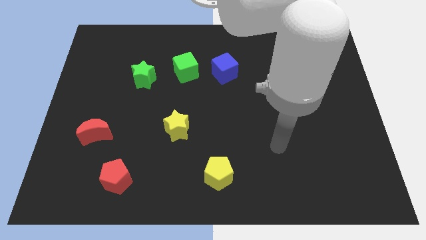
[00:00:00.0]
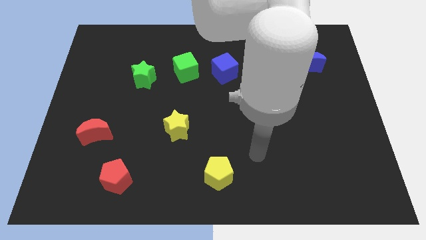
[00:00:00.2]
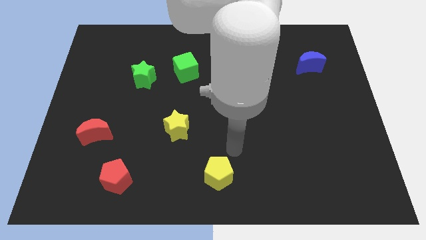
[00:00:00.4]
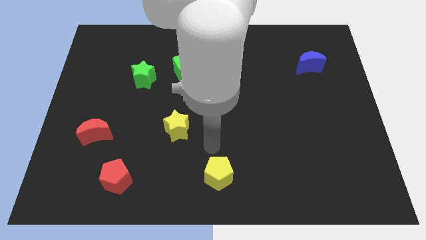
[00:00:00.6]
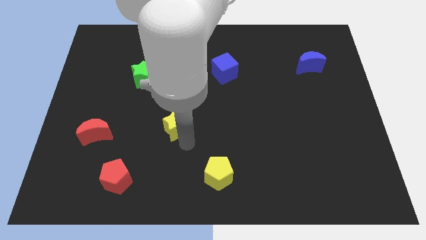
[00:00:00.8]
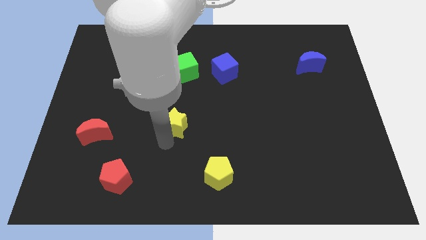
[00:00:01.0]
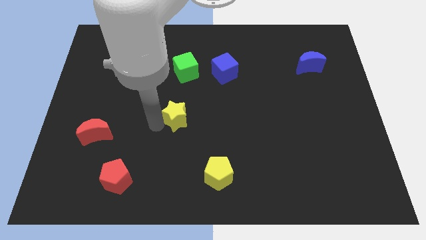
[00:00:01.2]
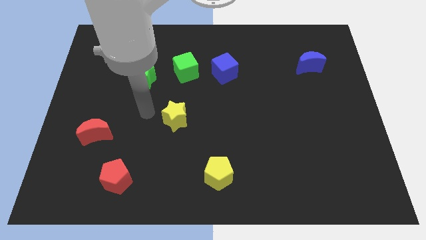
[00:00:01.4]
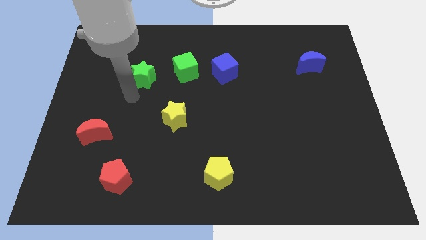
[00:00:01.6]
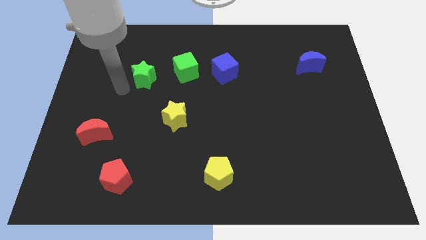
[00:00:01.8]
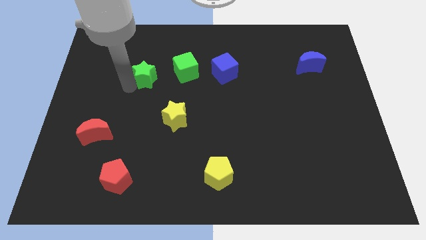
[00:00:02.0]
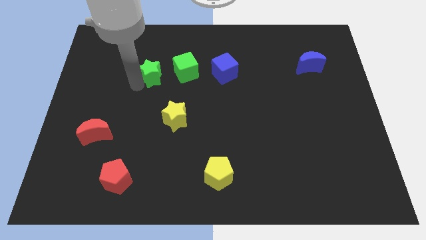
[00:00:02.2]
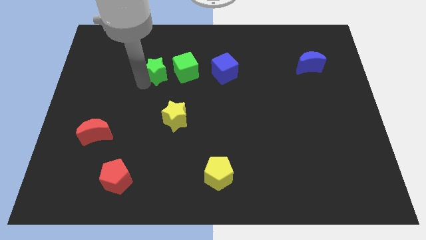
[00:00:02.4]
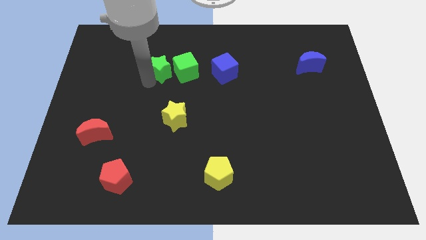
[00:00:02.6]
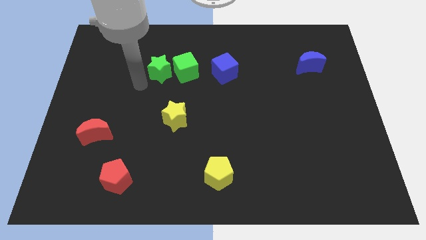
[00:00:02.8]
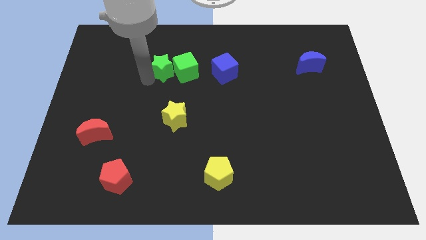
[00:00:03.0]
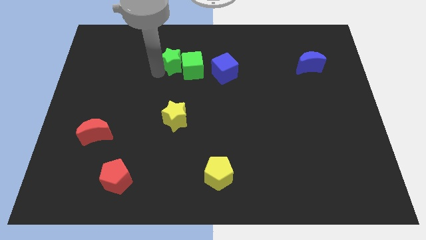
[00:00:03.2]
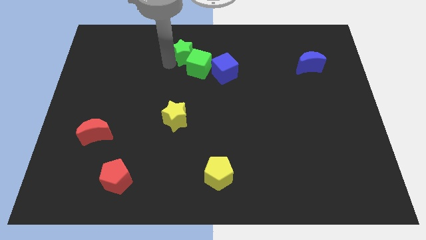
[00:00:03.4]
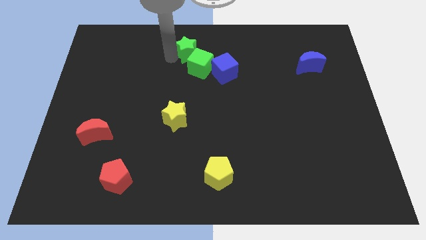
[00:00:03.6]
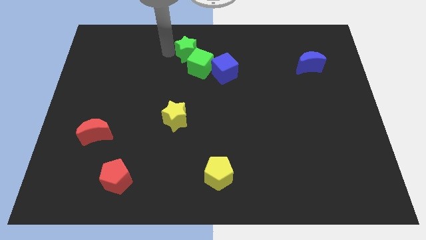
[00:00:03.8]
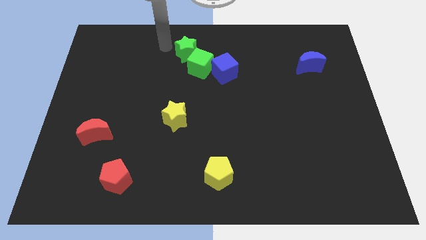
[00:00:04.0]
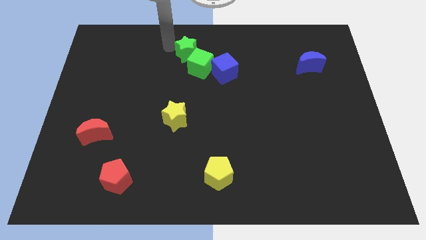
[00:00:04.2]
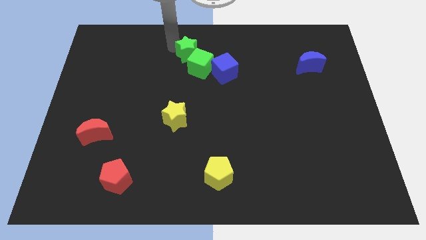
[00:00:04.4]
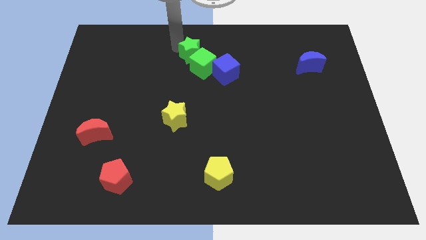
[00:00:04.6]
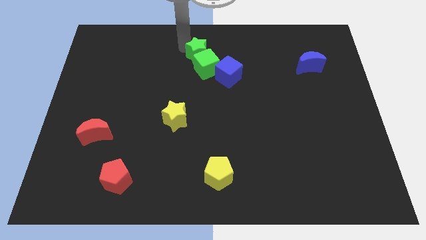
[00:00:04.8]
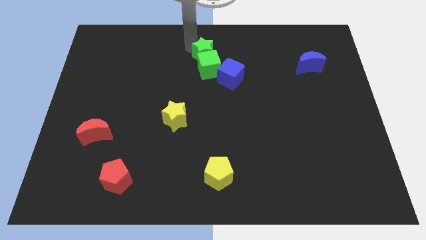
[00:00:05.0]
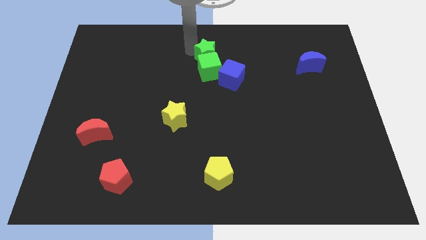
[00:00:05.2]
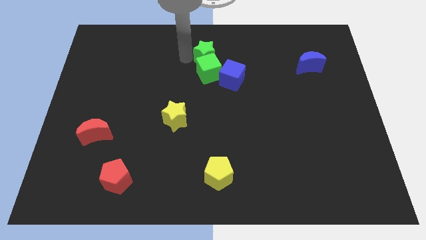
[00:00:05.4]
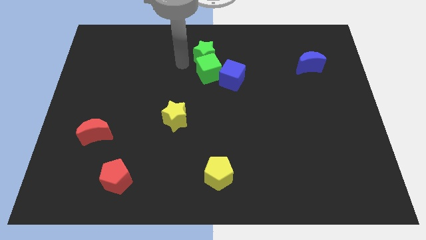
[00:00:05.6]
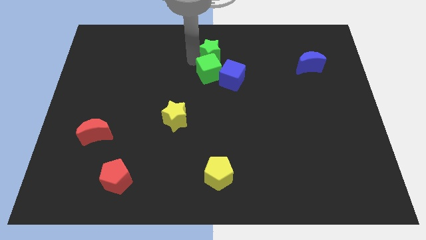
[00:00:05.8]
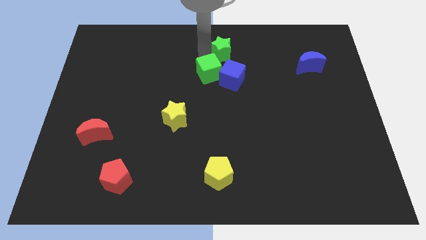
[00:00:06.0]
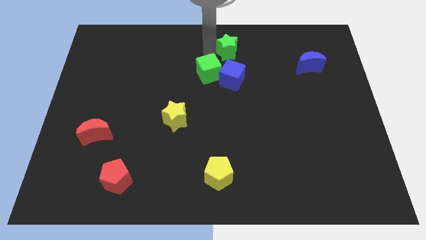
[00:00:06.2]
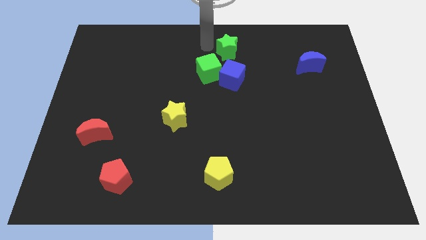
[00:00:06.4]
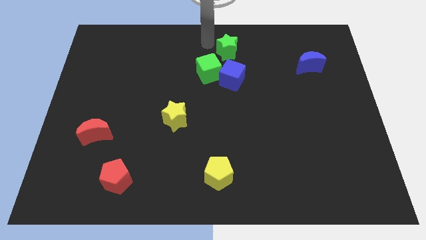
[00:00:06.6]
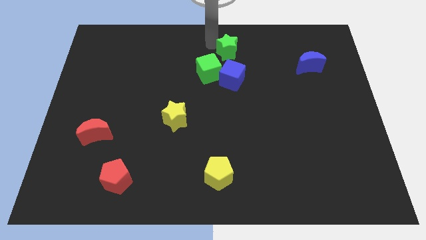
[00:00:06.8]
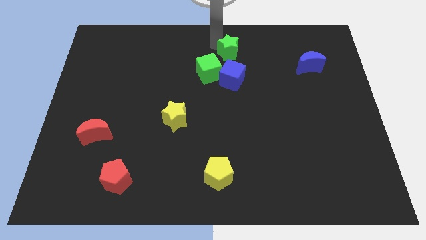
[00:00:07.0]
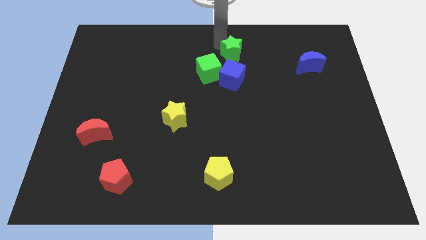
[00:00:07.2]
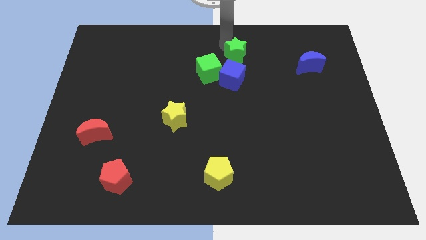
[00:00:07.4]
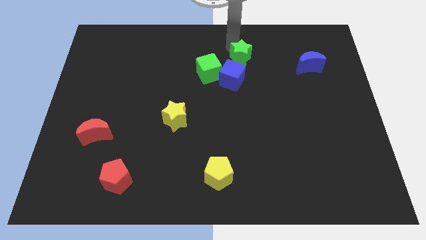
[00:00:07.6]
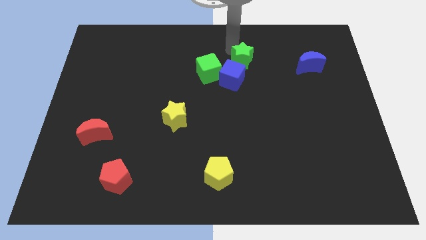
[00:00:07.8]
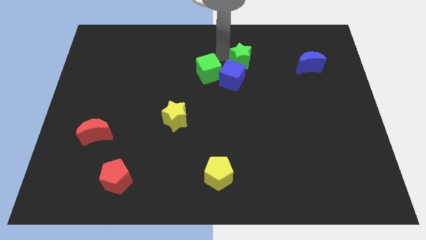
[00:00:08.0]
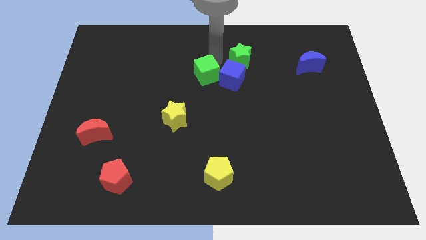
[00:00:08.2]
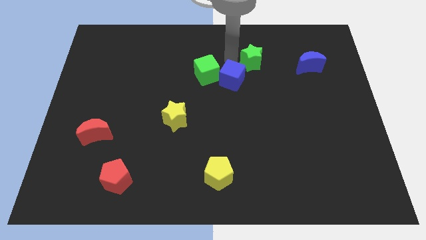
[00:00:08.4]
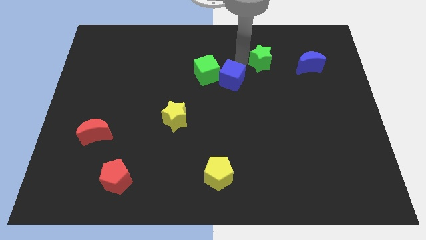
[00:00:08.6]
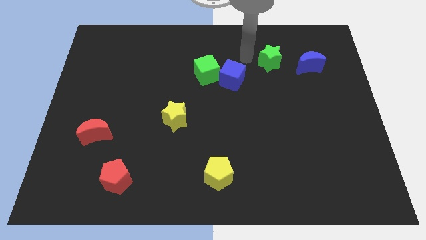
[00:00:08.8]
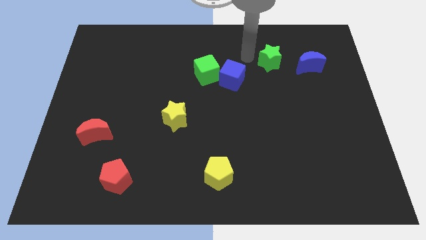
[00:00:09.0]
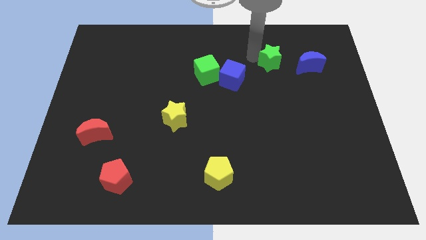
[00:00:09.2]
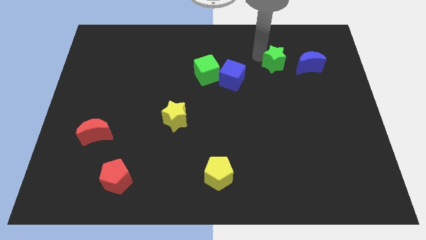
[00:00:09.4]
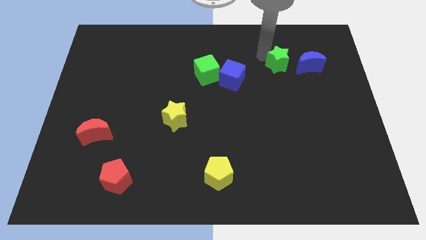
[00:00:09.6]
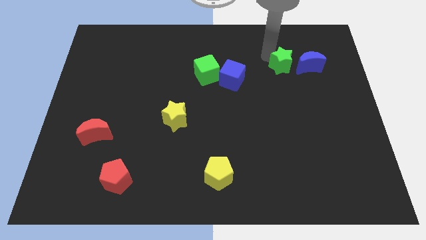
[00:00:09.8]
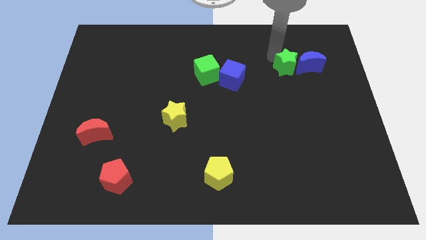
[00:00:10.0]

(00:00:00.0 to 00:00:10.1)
push the green star to the blue moon

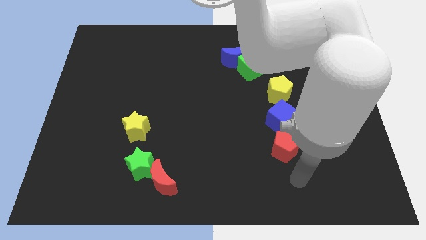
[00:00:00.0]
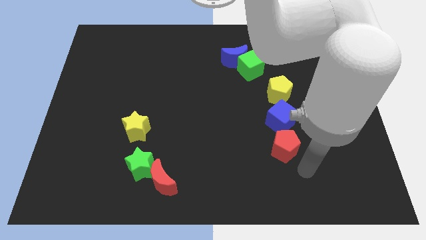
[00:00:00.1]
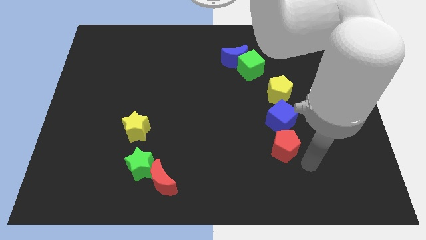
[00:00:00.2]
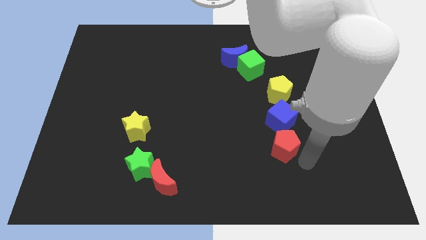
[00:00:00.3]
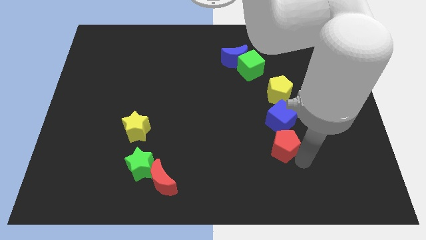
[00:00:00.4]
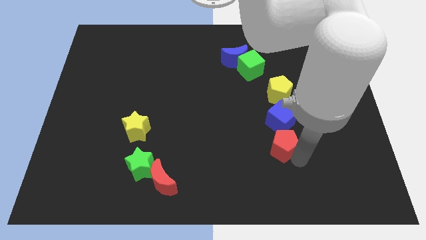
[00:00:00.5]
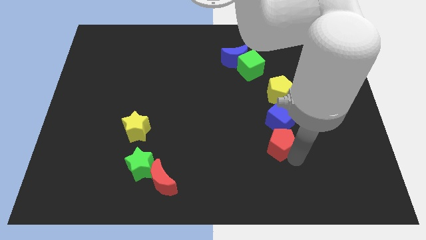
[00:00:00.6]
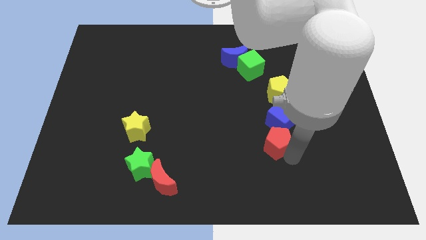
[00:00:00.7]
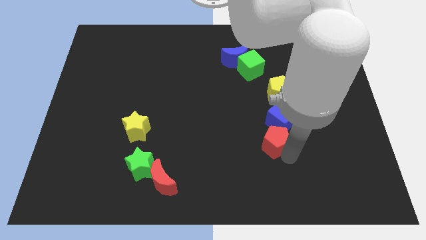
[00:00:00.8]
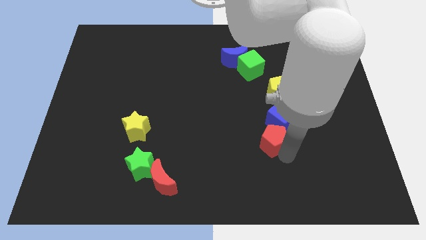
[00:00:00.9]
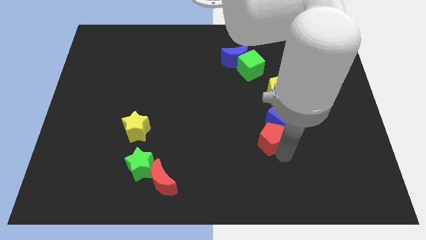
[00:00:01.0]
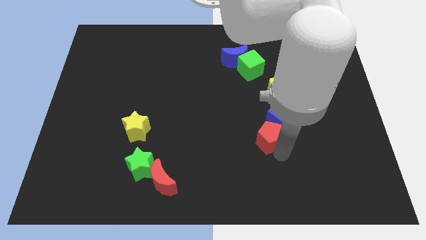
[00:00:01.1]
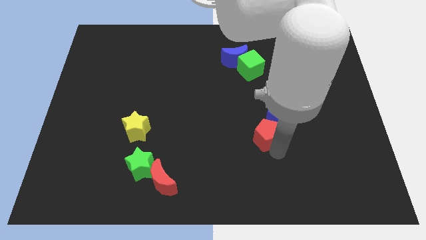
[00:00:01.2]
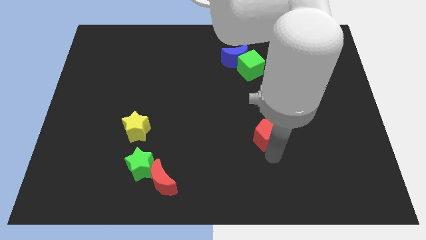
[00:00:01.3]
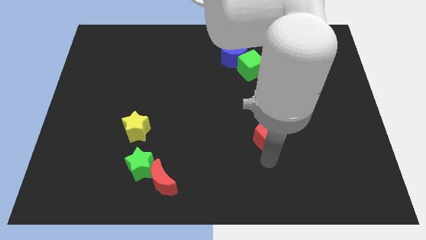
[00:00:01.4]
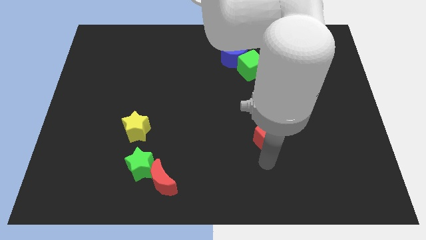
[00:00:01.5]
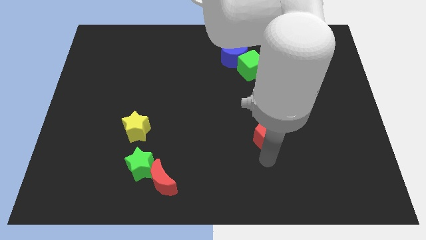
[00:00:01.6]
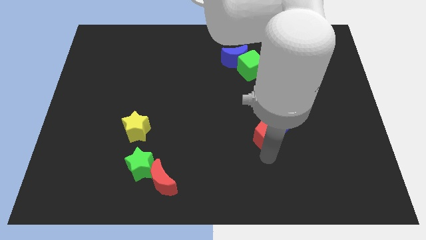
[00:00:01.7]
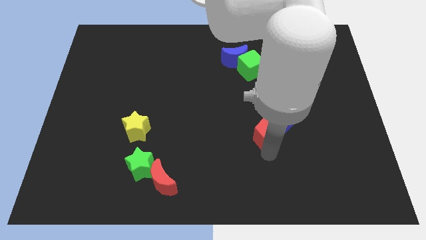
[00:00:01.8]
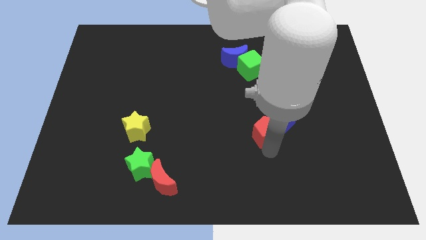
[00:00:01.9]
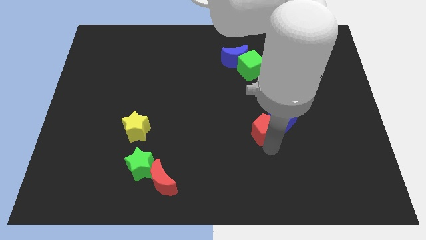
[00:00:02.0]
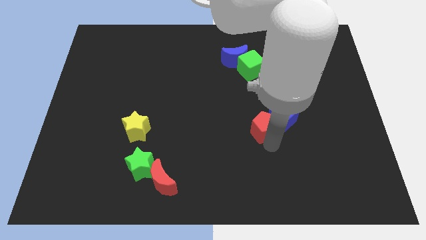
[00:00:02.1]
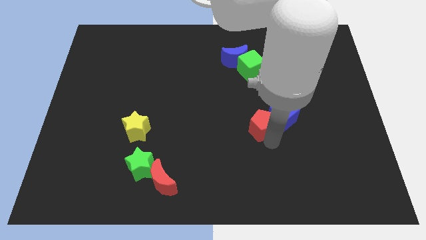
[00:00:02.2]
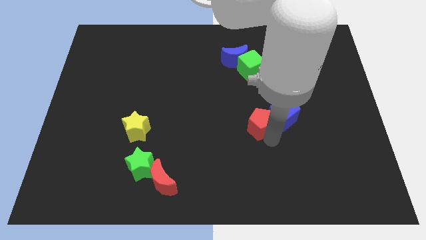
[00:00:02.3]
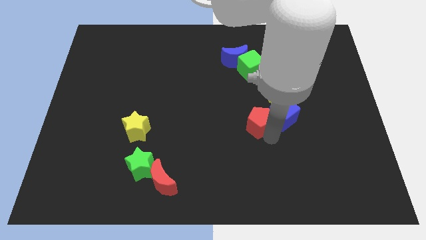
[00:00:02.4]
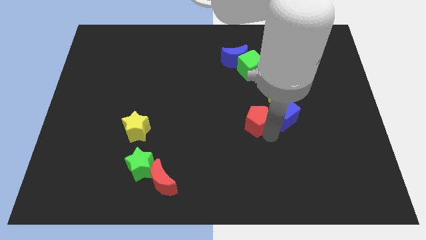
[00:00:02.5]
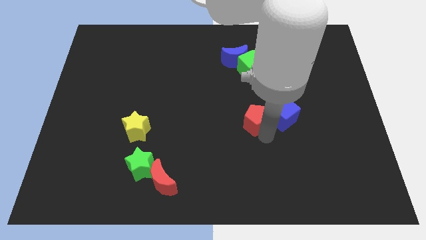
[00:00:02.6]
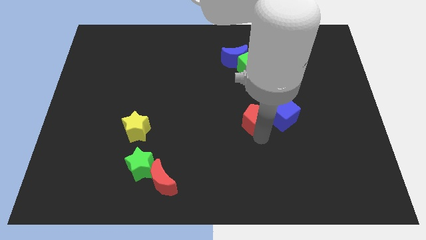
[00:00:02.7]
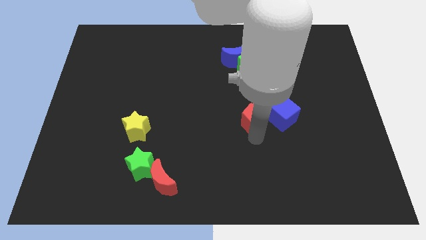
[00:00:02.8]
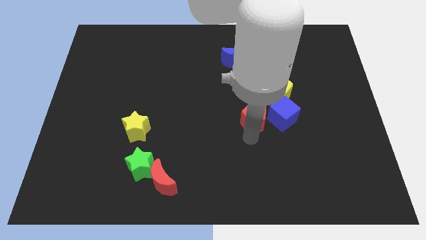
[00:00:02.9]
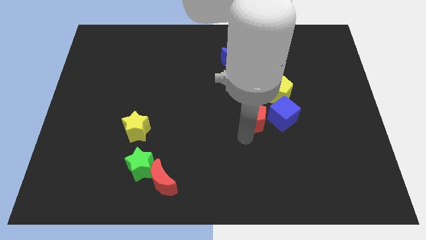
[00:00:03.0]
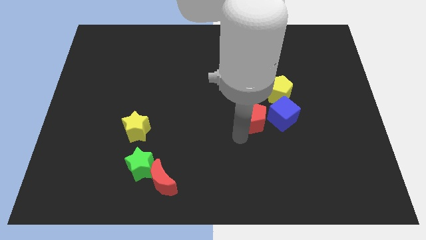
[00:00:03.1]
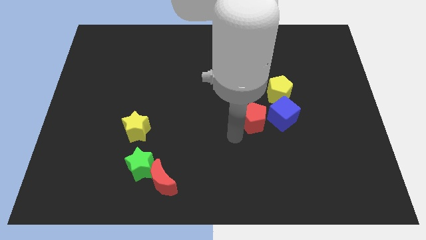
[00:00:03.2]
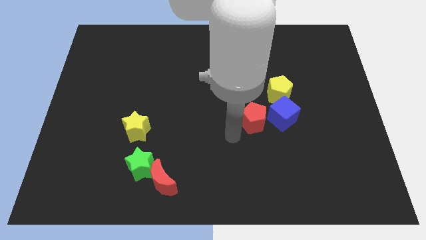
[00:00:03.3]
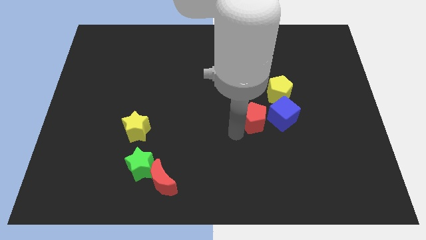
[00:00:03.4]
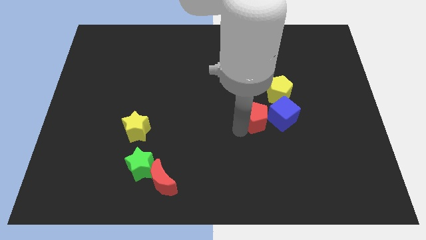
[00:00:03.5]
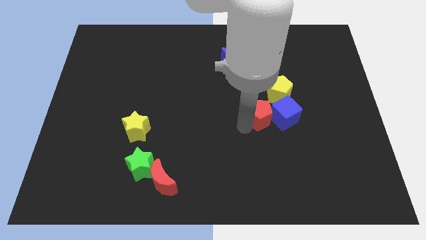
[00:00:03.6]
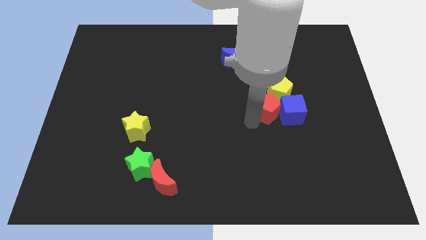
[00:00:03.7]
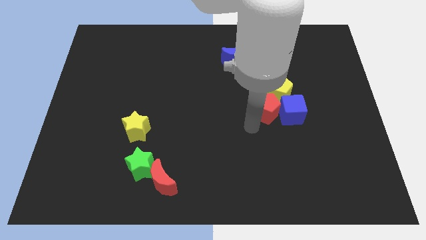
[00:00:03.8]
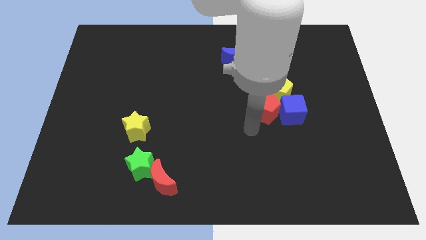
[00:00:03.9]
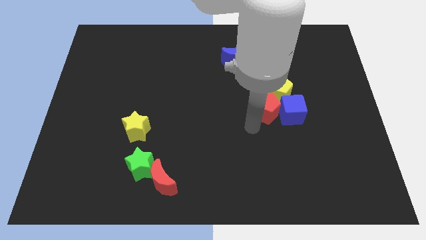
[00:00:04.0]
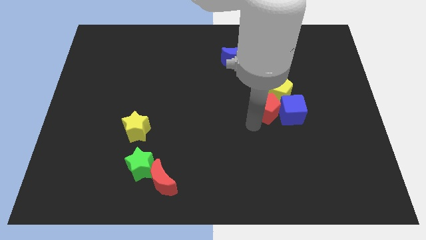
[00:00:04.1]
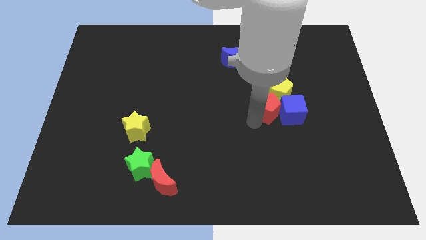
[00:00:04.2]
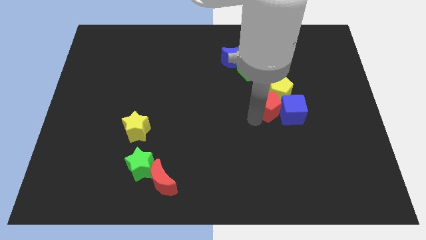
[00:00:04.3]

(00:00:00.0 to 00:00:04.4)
move the red pentagon next to the yellow pentagon
